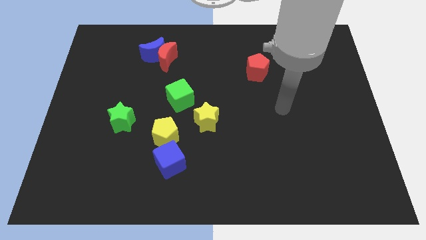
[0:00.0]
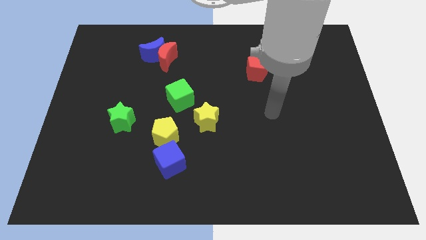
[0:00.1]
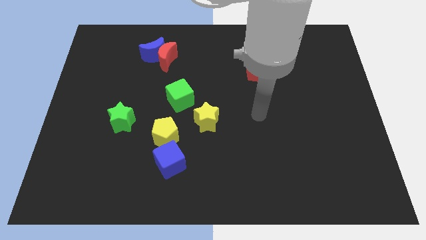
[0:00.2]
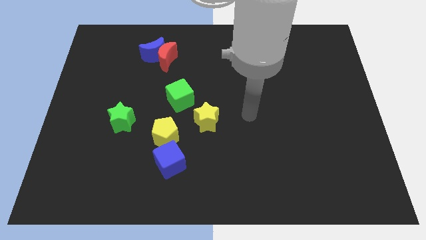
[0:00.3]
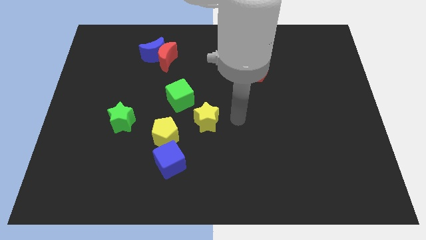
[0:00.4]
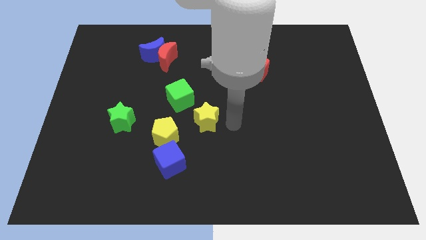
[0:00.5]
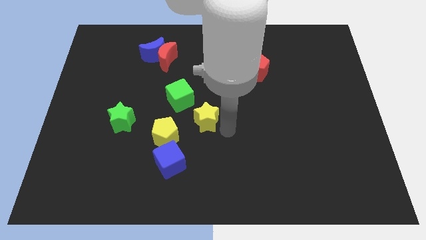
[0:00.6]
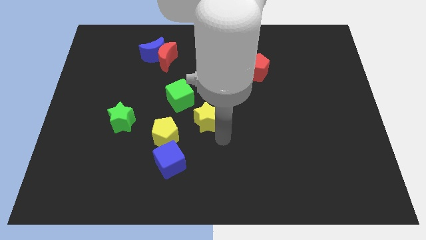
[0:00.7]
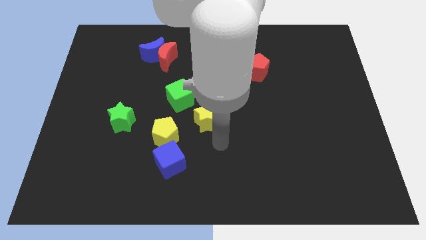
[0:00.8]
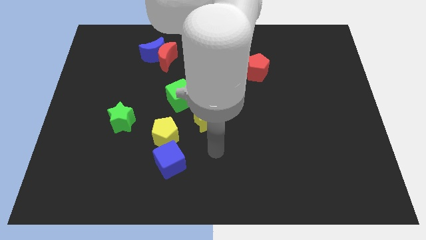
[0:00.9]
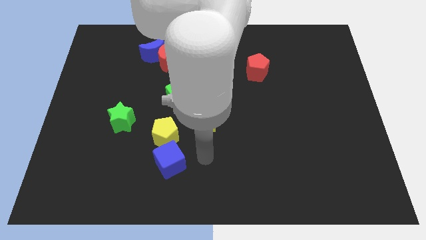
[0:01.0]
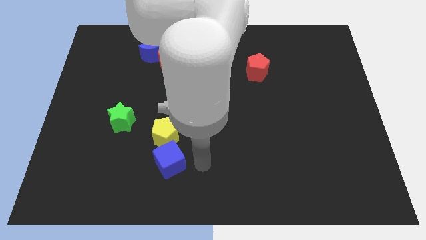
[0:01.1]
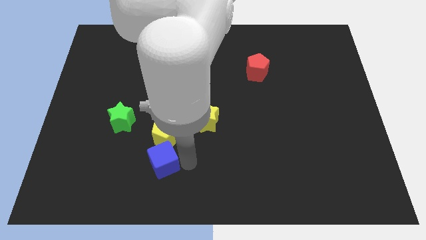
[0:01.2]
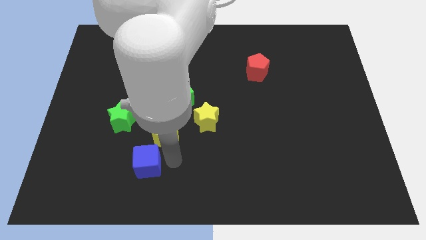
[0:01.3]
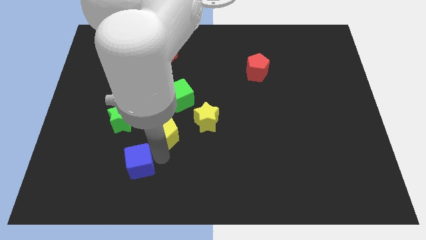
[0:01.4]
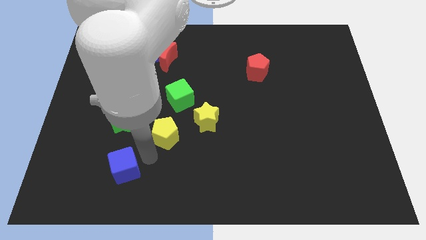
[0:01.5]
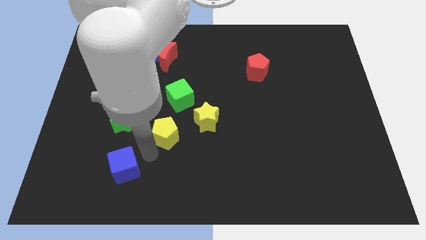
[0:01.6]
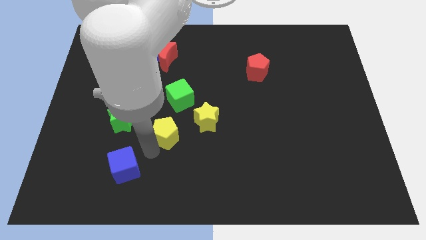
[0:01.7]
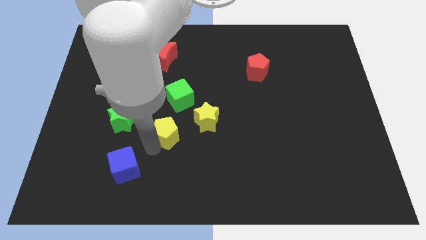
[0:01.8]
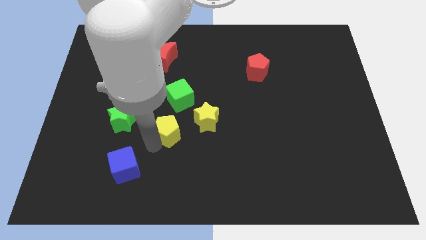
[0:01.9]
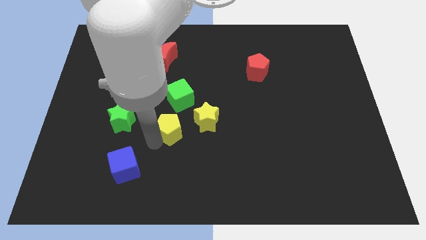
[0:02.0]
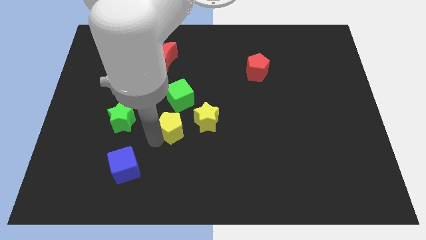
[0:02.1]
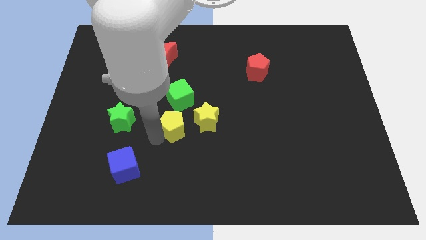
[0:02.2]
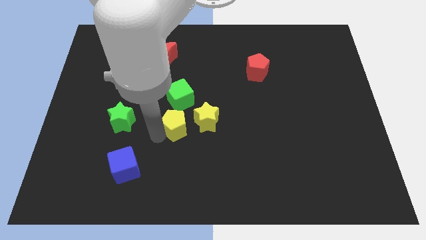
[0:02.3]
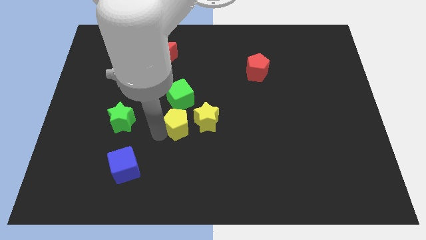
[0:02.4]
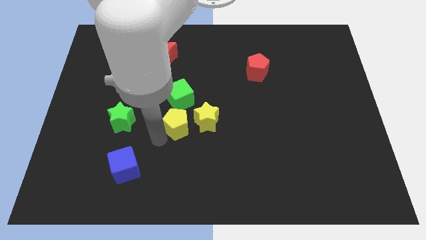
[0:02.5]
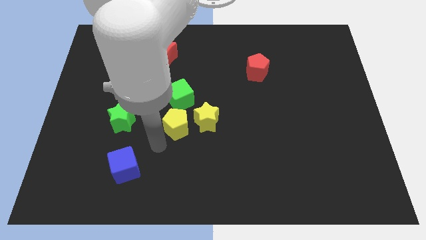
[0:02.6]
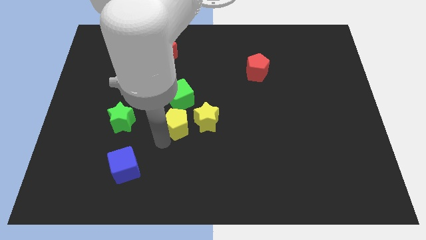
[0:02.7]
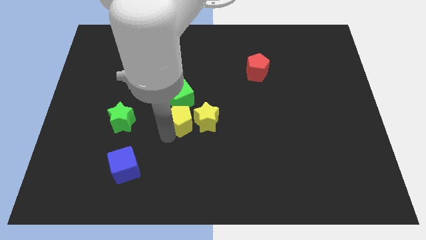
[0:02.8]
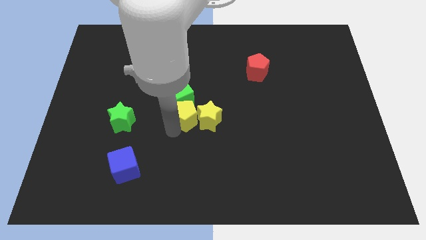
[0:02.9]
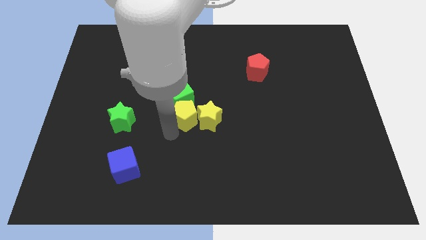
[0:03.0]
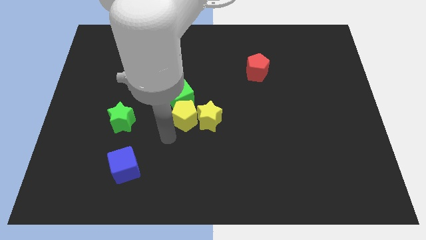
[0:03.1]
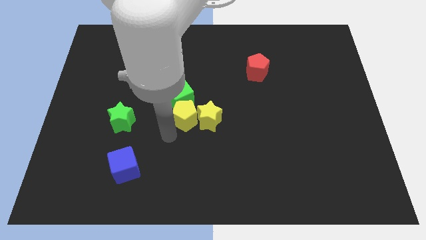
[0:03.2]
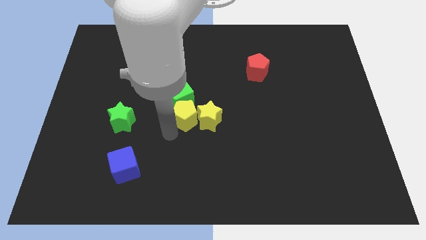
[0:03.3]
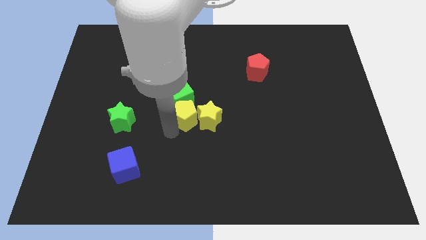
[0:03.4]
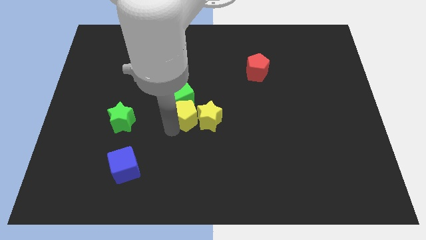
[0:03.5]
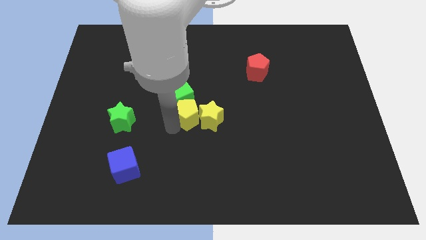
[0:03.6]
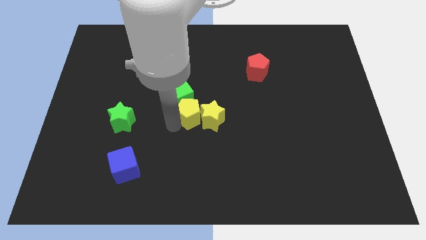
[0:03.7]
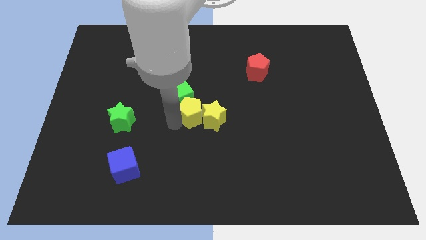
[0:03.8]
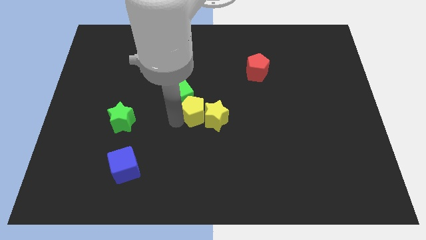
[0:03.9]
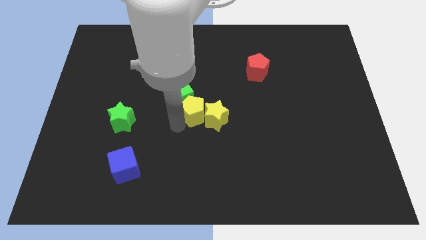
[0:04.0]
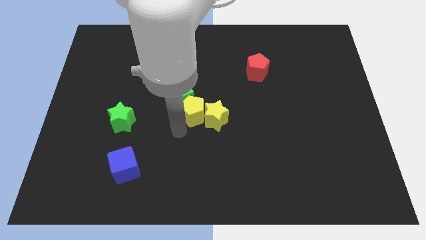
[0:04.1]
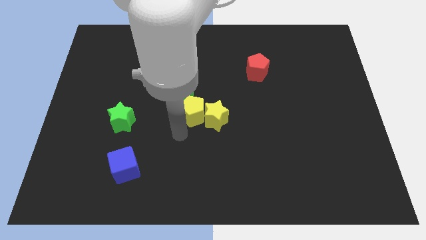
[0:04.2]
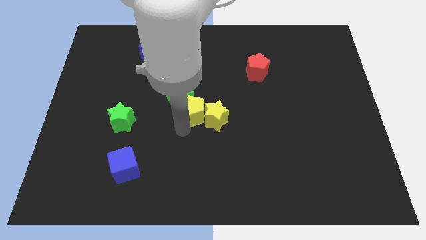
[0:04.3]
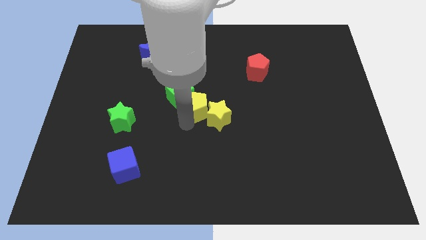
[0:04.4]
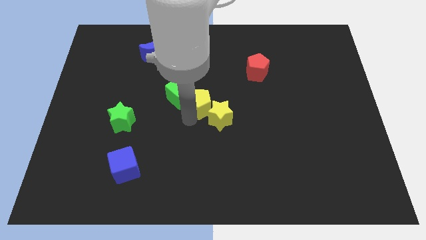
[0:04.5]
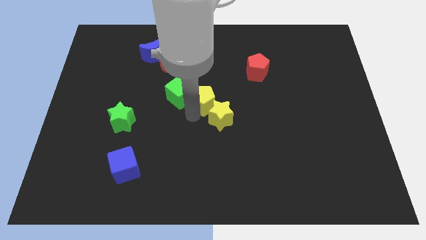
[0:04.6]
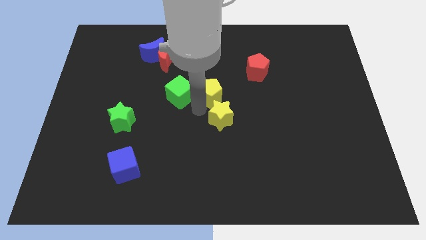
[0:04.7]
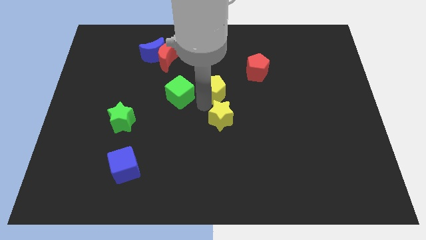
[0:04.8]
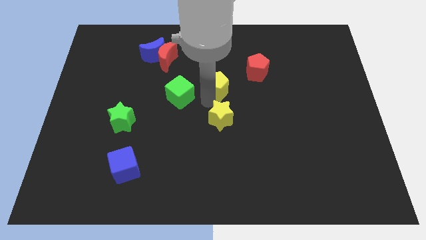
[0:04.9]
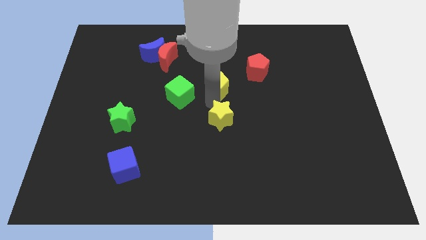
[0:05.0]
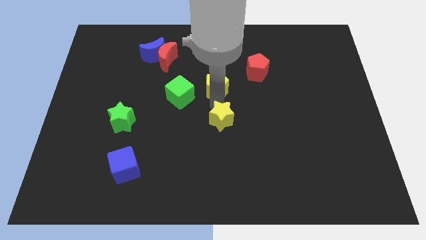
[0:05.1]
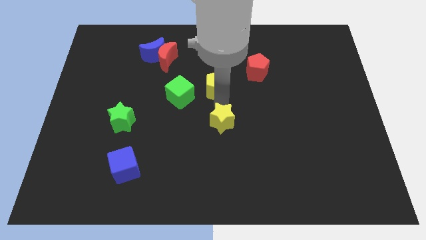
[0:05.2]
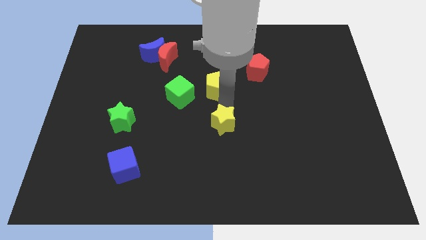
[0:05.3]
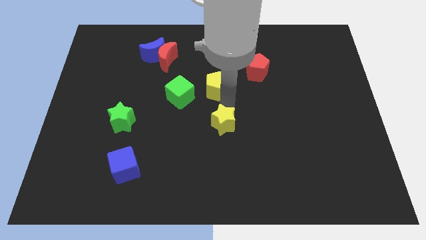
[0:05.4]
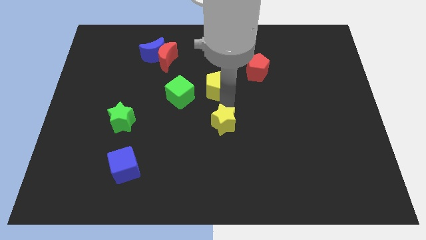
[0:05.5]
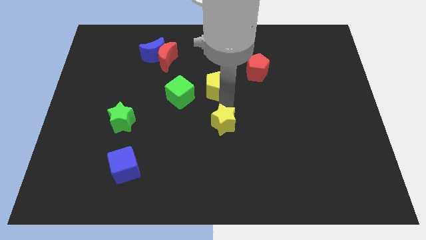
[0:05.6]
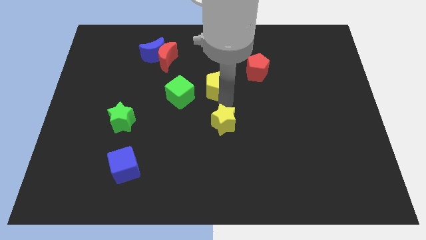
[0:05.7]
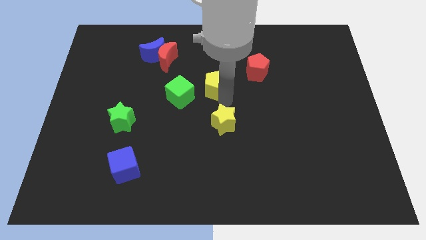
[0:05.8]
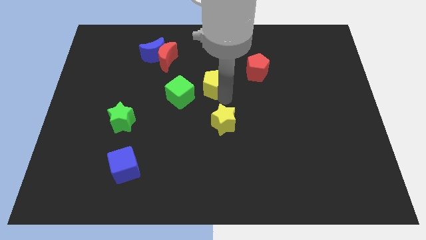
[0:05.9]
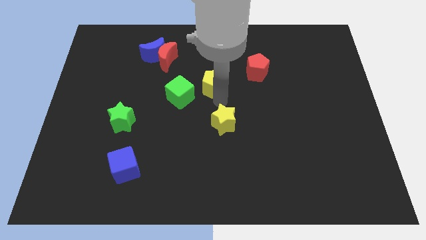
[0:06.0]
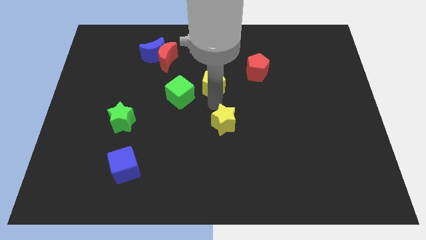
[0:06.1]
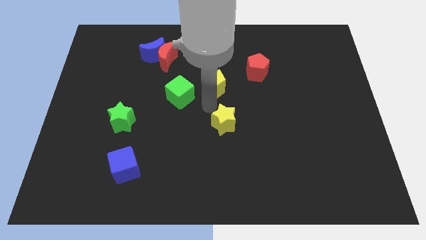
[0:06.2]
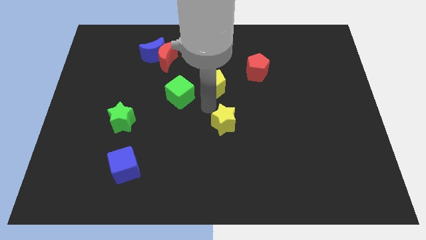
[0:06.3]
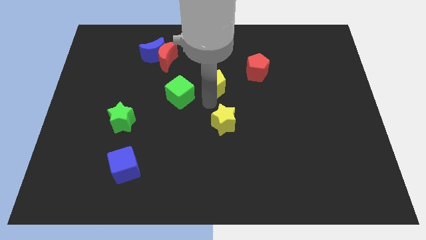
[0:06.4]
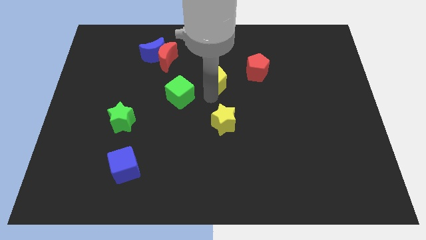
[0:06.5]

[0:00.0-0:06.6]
move the yellow pentagon to the left of the red pentagon

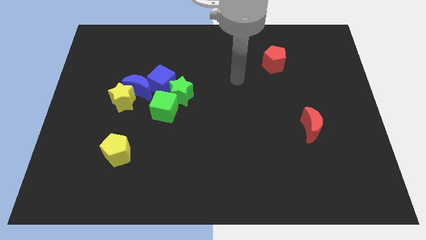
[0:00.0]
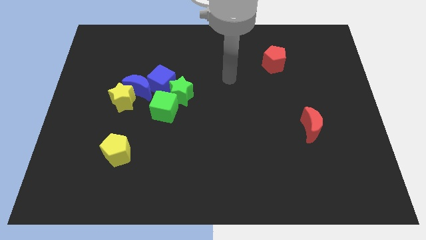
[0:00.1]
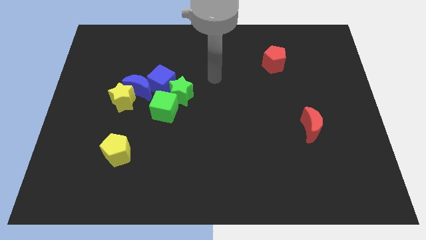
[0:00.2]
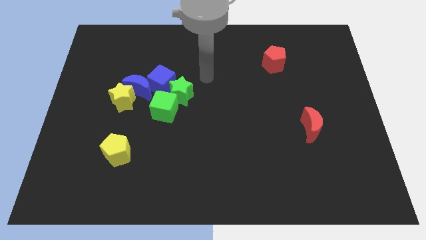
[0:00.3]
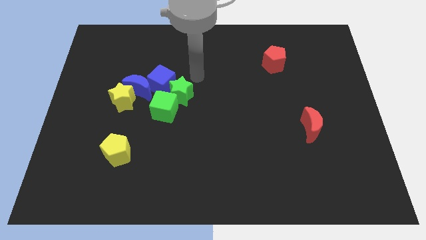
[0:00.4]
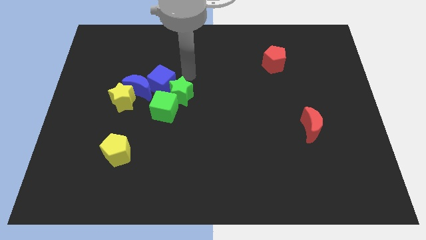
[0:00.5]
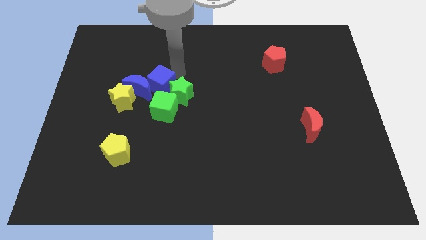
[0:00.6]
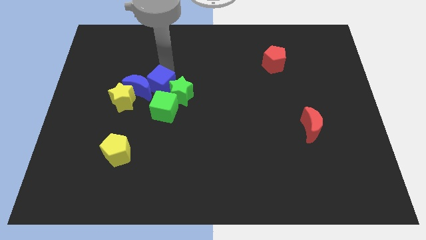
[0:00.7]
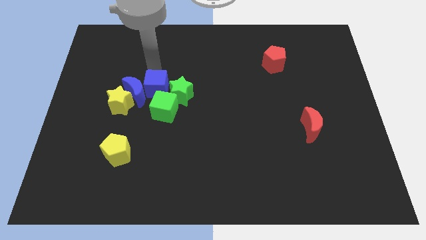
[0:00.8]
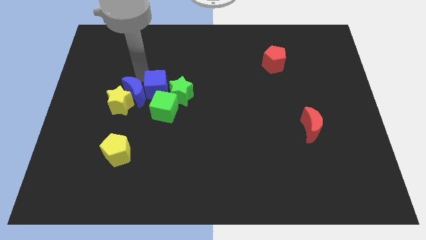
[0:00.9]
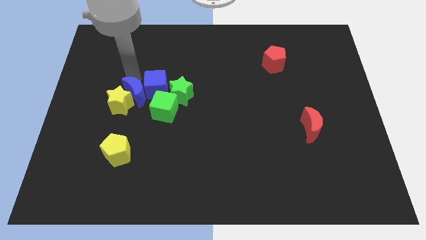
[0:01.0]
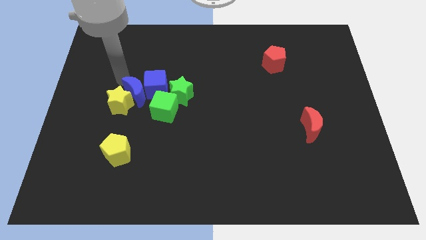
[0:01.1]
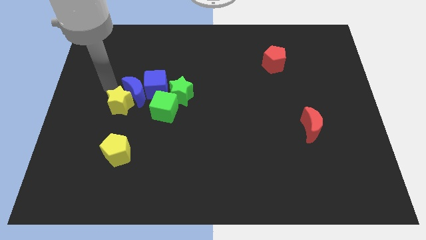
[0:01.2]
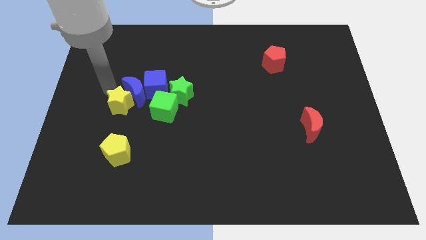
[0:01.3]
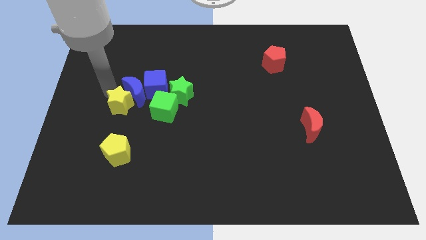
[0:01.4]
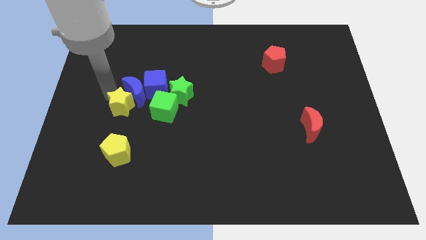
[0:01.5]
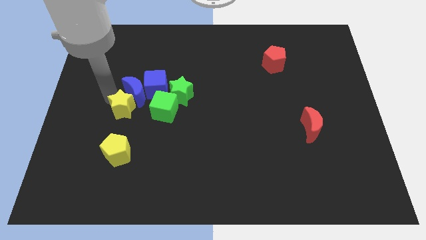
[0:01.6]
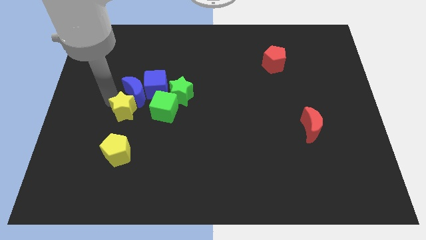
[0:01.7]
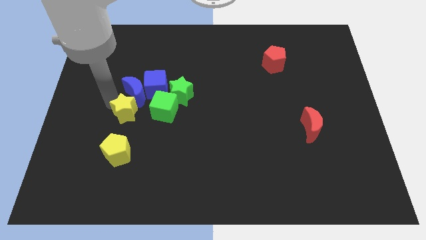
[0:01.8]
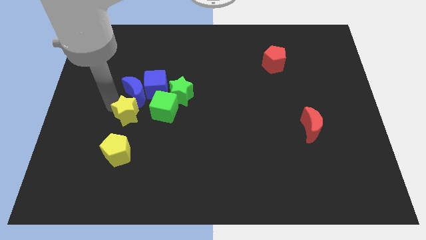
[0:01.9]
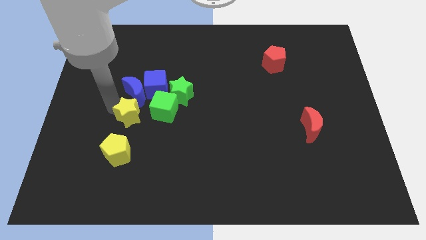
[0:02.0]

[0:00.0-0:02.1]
put the yellow star to the bottom left of the green cube
